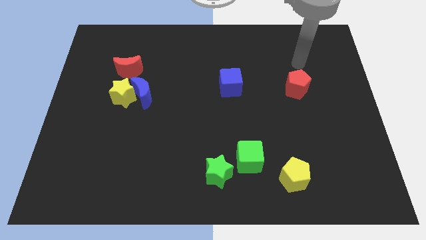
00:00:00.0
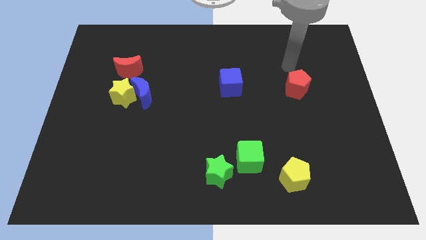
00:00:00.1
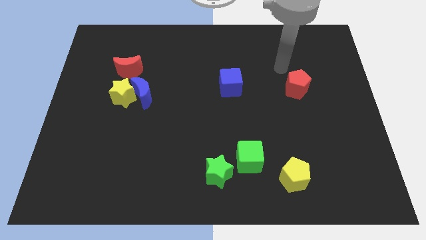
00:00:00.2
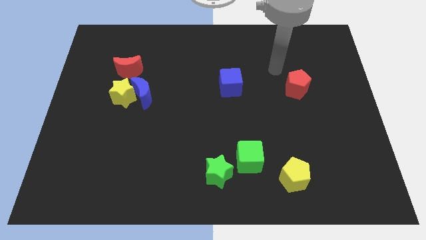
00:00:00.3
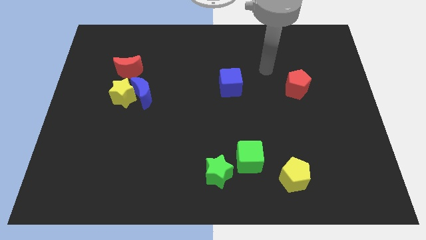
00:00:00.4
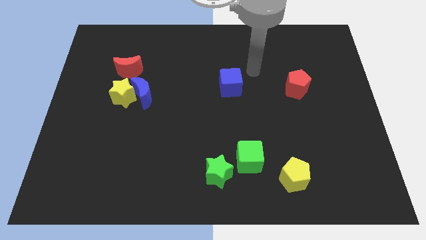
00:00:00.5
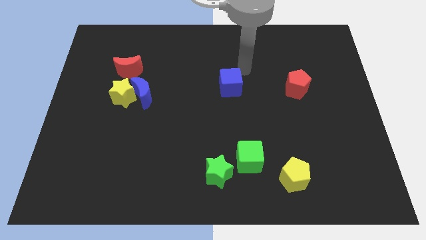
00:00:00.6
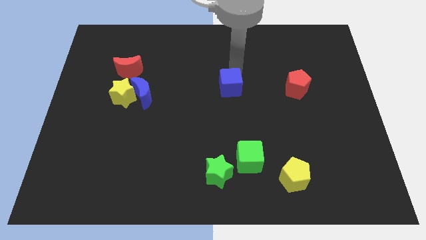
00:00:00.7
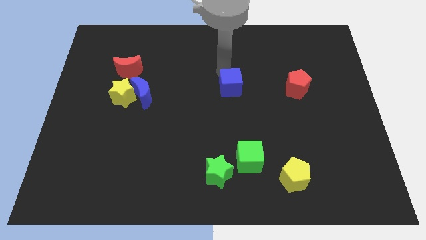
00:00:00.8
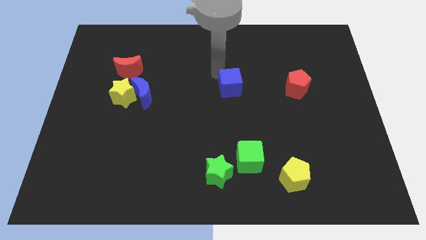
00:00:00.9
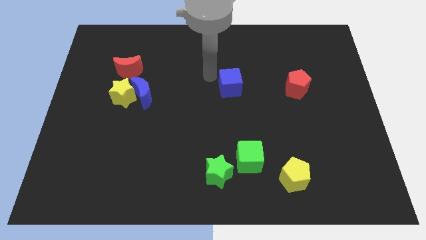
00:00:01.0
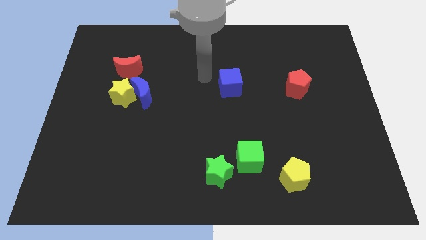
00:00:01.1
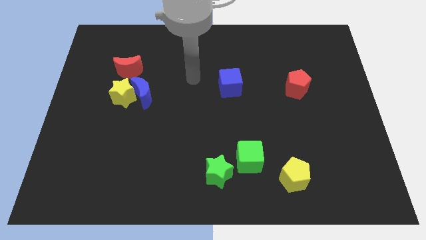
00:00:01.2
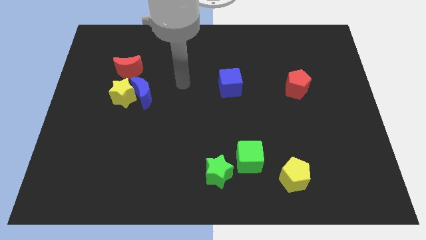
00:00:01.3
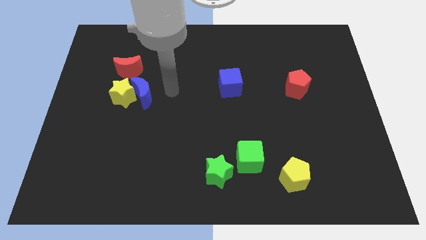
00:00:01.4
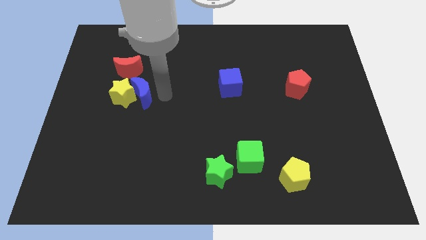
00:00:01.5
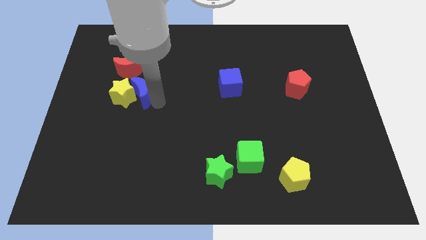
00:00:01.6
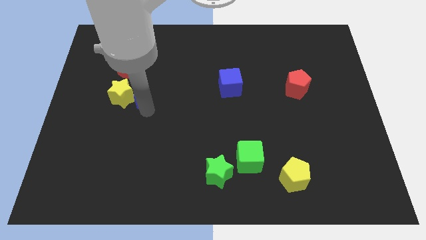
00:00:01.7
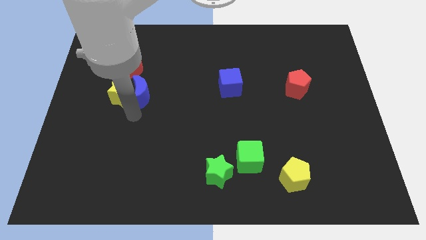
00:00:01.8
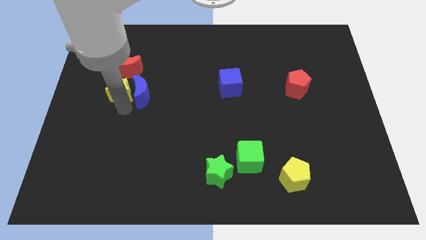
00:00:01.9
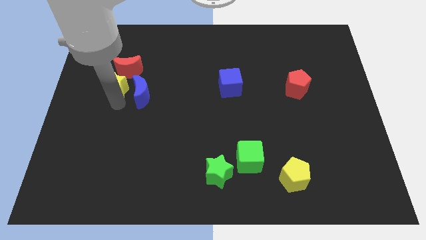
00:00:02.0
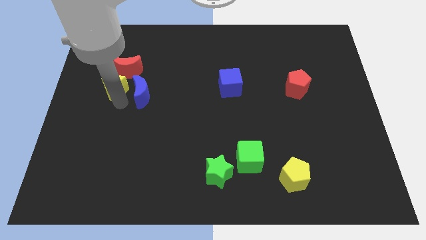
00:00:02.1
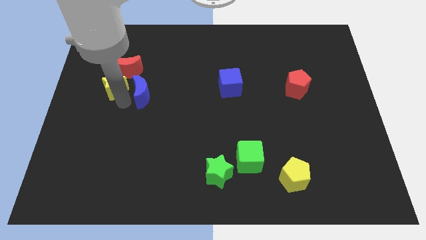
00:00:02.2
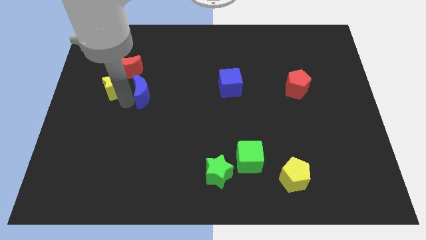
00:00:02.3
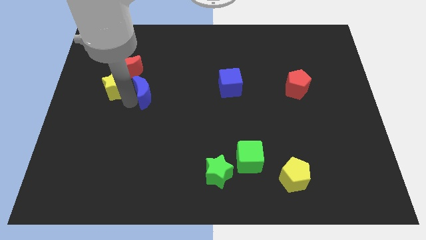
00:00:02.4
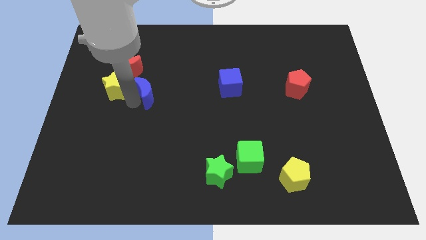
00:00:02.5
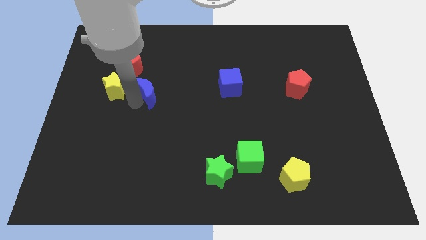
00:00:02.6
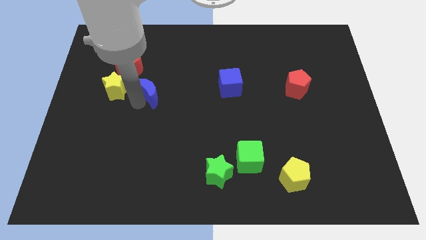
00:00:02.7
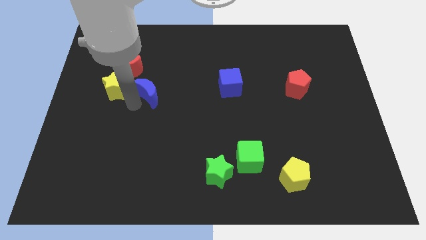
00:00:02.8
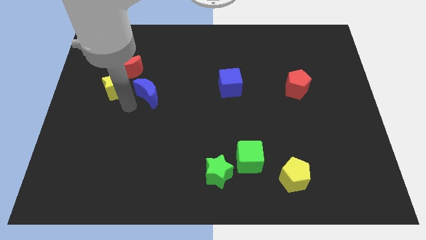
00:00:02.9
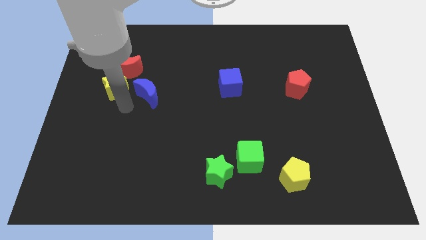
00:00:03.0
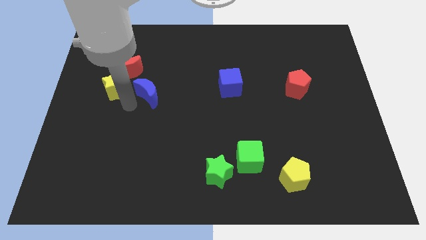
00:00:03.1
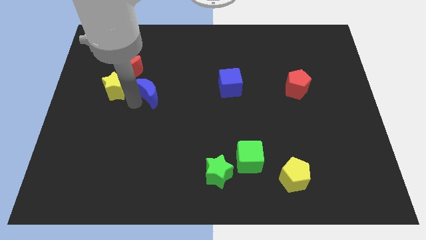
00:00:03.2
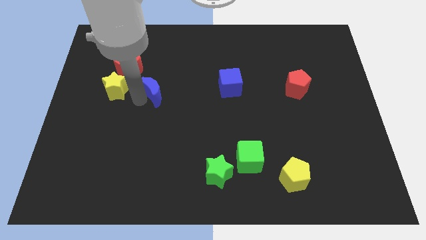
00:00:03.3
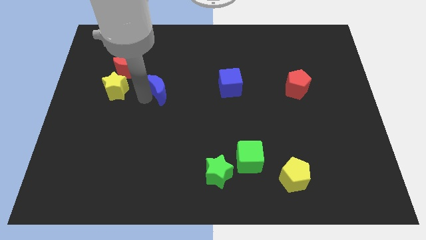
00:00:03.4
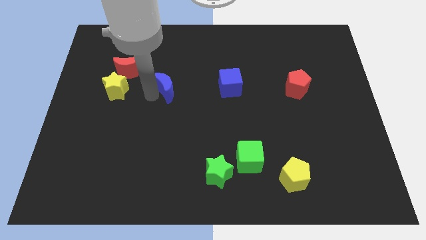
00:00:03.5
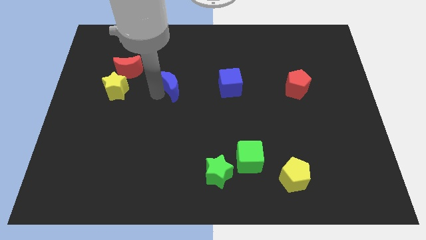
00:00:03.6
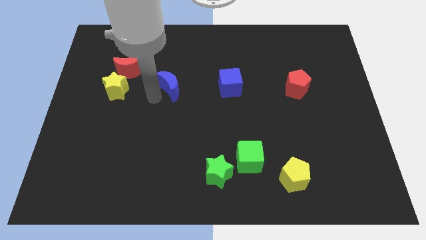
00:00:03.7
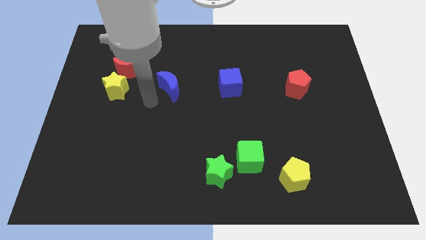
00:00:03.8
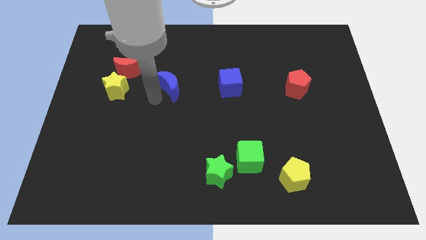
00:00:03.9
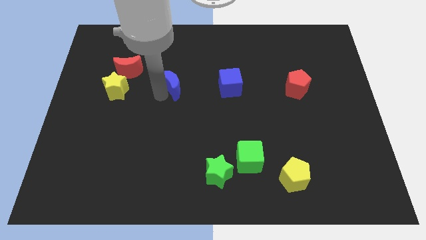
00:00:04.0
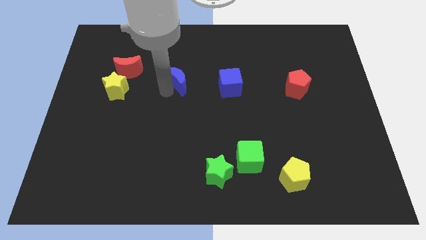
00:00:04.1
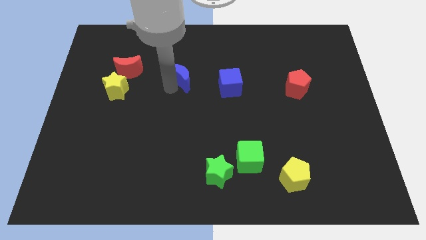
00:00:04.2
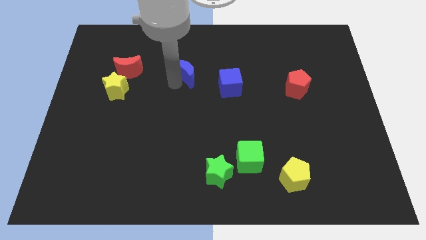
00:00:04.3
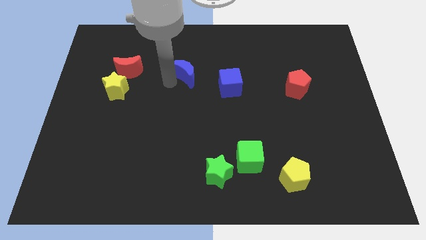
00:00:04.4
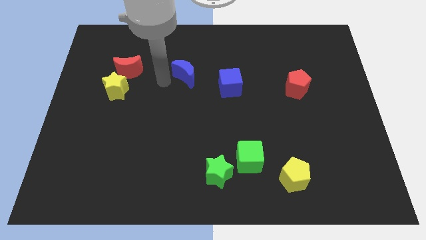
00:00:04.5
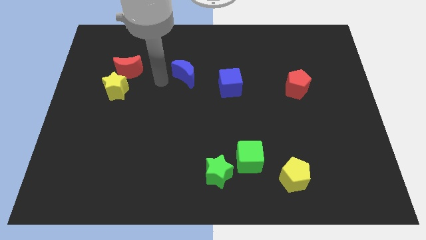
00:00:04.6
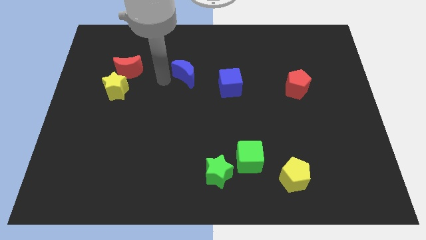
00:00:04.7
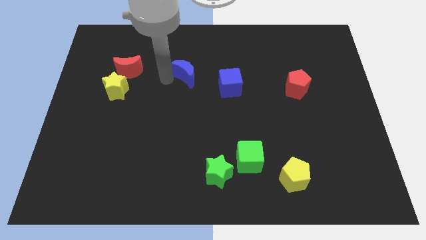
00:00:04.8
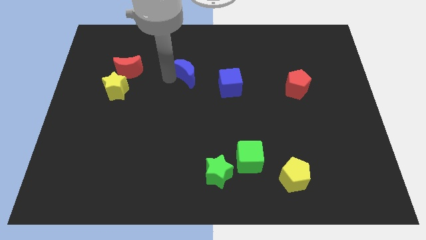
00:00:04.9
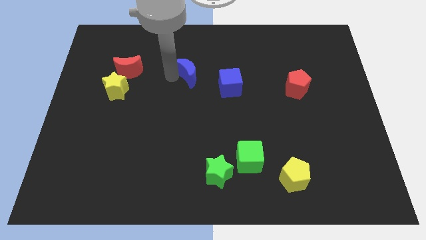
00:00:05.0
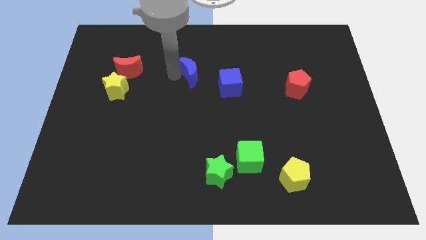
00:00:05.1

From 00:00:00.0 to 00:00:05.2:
move the blue moon to the top left side of the blue cube
